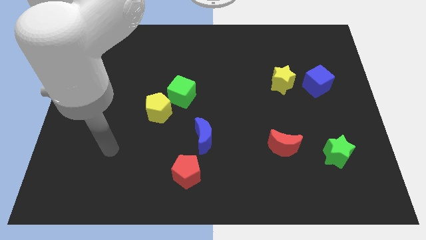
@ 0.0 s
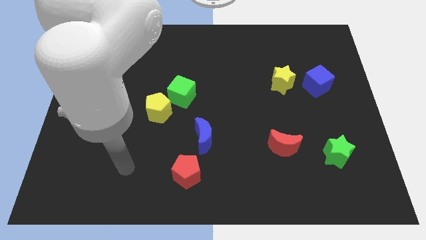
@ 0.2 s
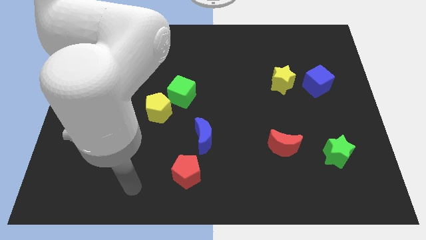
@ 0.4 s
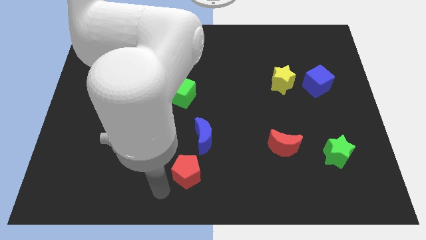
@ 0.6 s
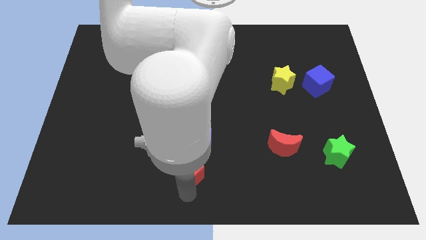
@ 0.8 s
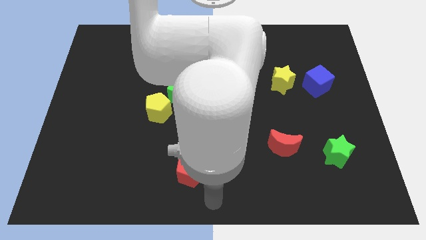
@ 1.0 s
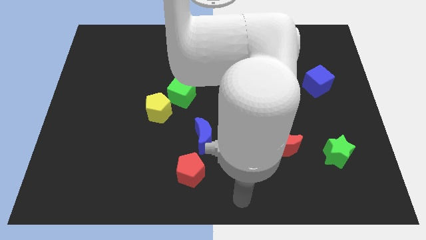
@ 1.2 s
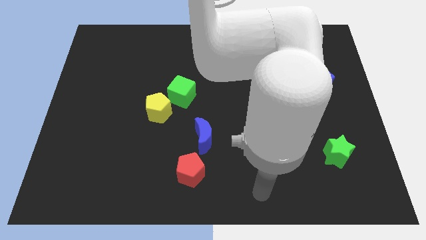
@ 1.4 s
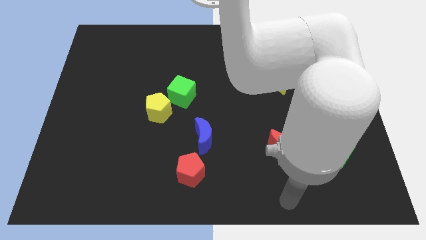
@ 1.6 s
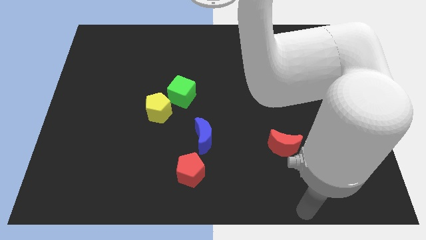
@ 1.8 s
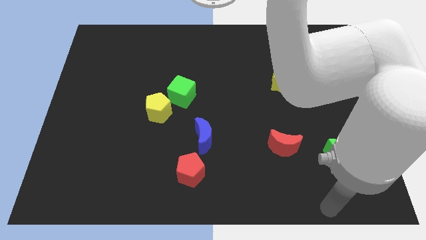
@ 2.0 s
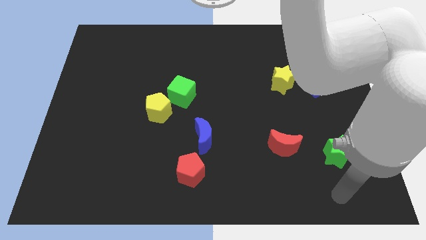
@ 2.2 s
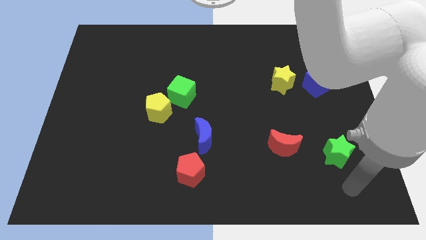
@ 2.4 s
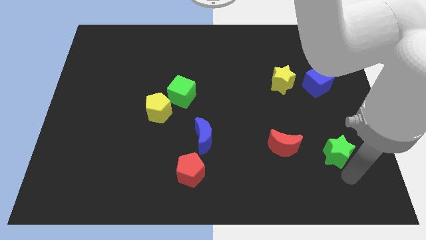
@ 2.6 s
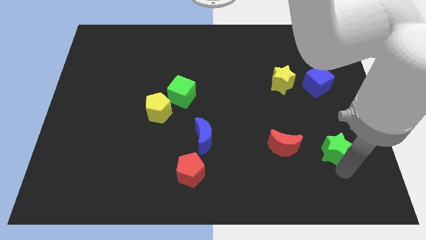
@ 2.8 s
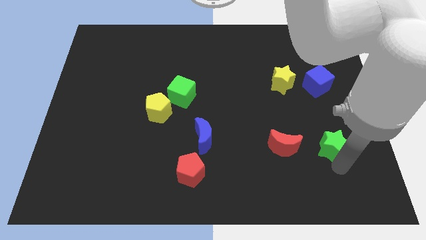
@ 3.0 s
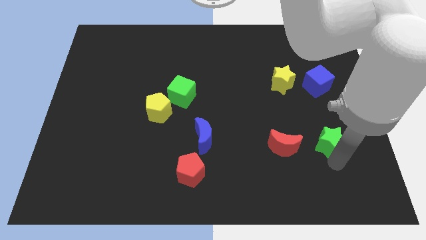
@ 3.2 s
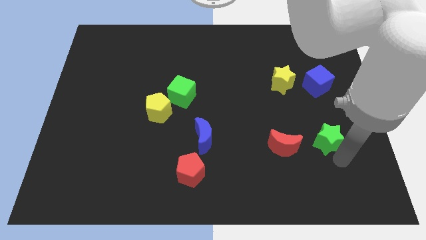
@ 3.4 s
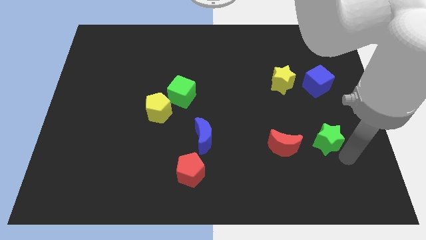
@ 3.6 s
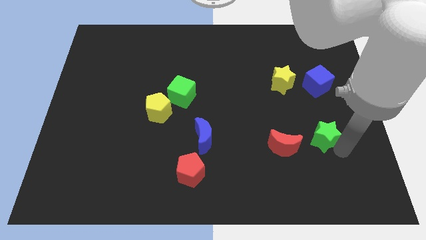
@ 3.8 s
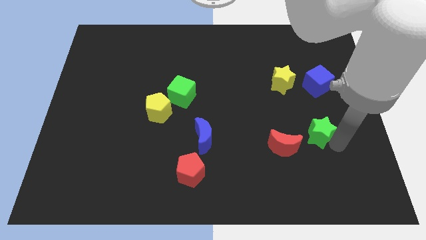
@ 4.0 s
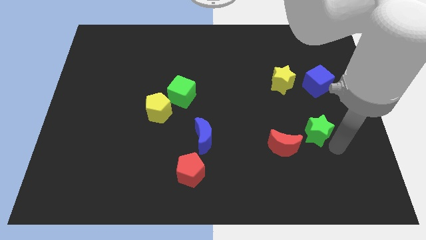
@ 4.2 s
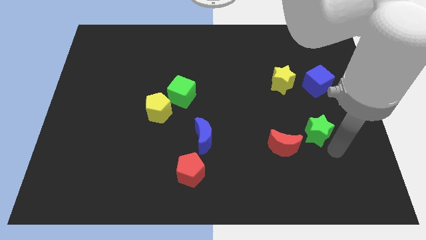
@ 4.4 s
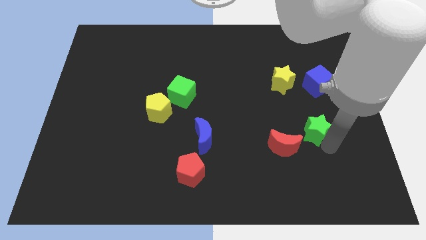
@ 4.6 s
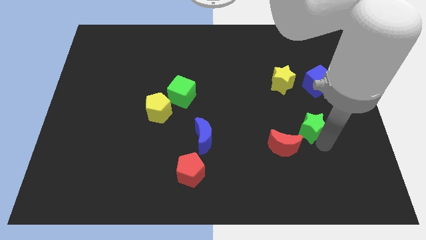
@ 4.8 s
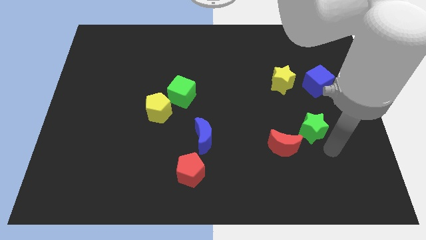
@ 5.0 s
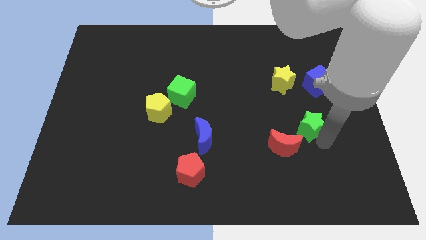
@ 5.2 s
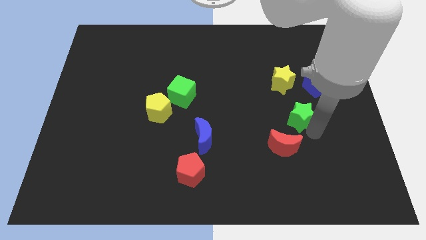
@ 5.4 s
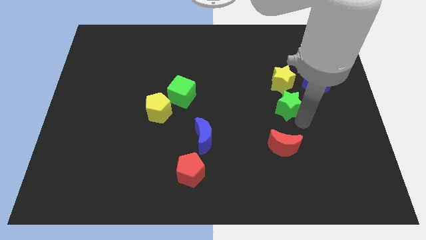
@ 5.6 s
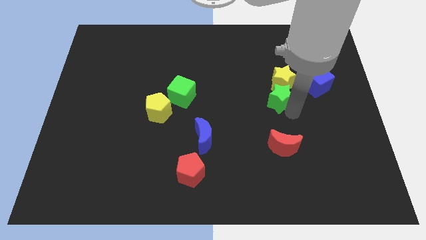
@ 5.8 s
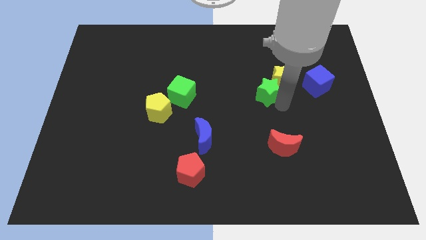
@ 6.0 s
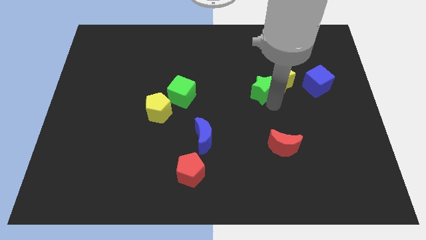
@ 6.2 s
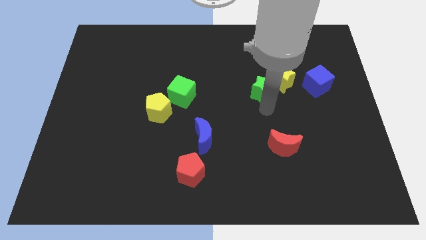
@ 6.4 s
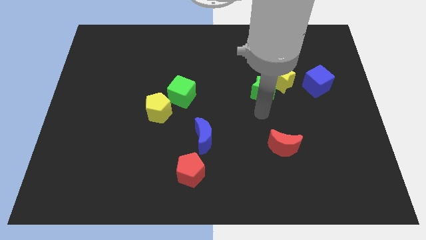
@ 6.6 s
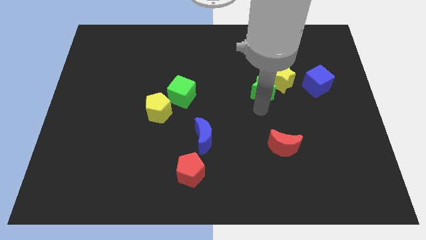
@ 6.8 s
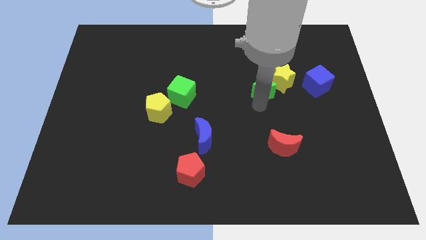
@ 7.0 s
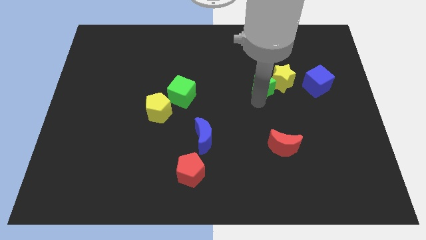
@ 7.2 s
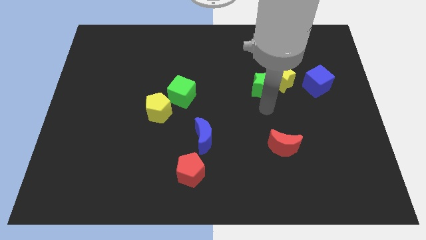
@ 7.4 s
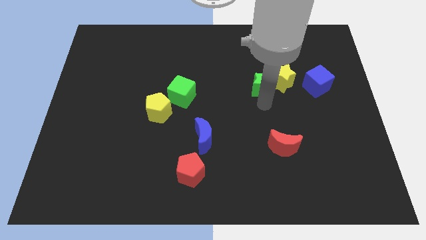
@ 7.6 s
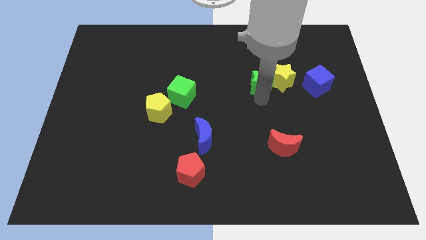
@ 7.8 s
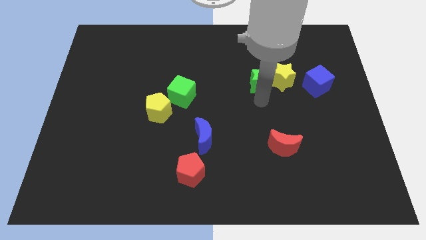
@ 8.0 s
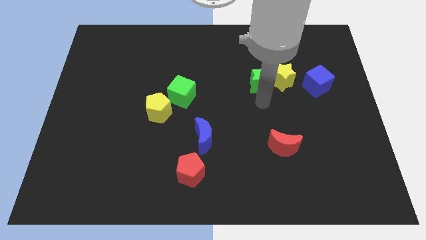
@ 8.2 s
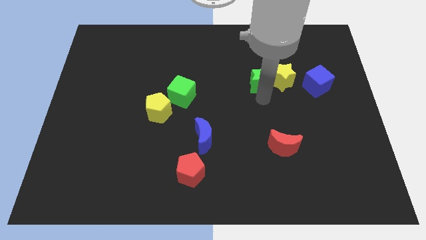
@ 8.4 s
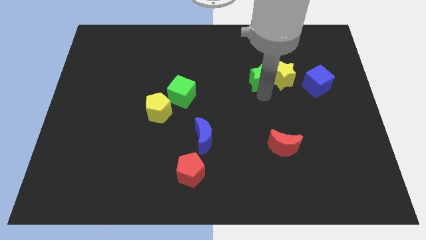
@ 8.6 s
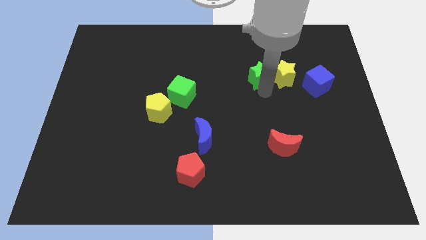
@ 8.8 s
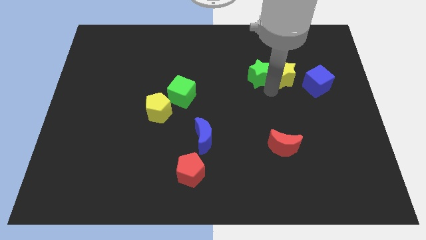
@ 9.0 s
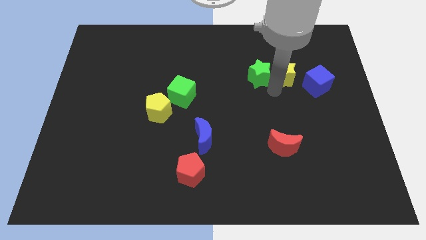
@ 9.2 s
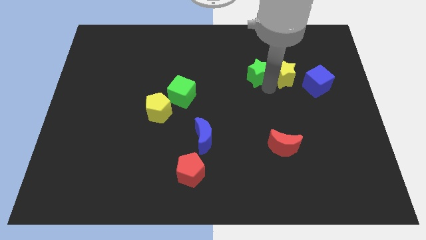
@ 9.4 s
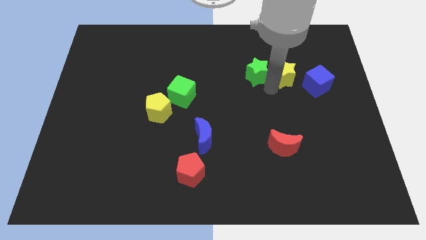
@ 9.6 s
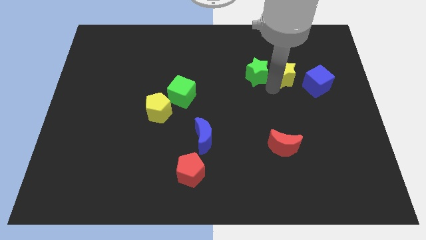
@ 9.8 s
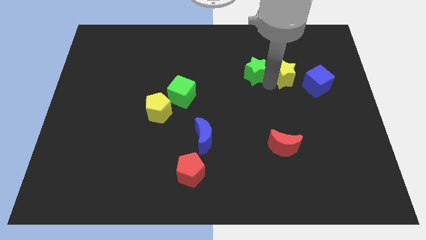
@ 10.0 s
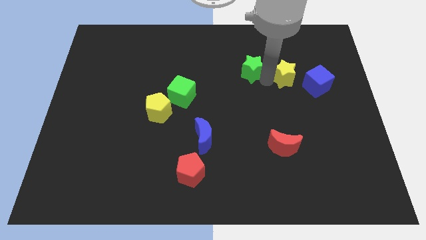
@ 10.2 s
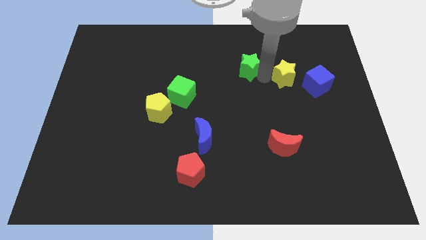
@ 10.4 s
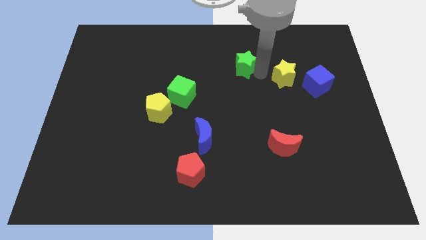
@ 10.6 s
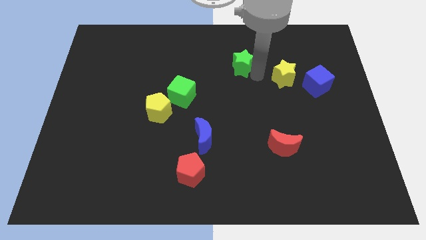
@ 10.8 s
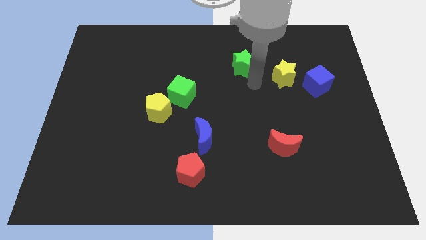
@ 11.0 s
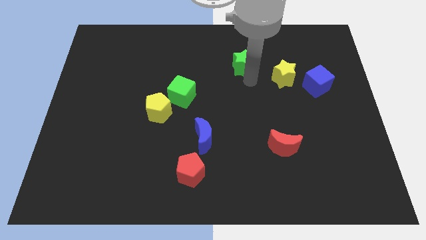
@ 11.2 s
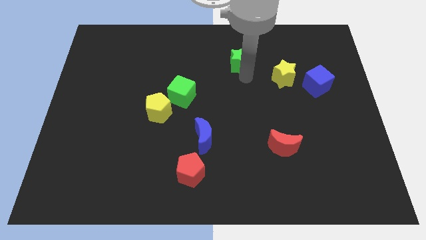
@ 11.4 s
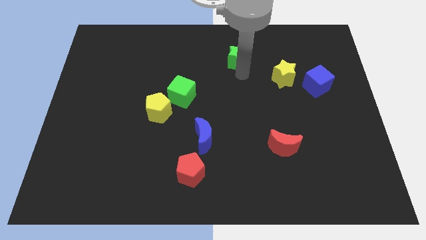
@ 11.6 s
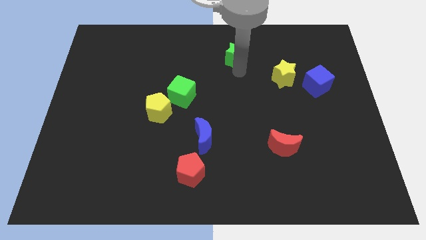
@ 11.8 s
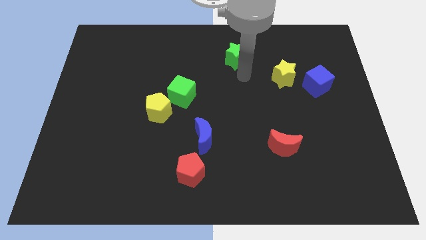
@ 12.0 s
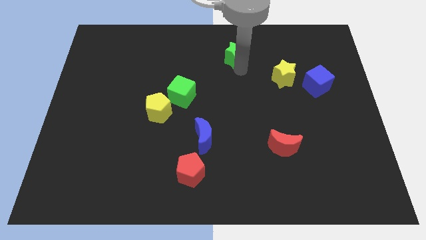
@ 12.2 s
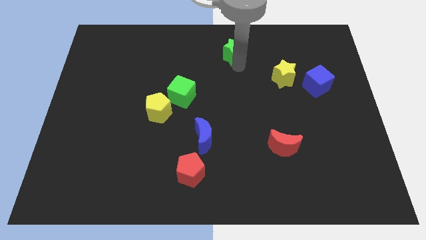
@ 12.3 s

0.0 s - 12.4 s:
slide the green star to the towards your base

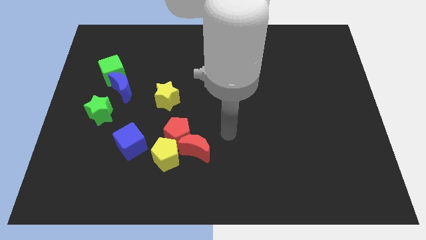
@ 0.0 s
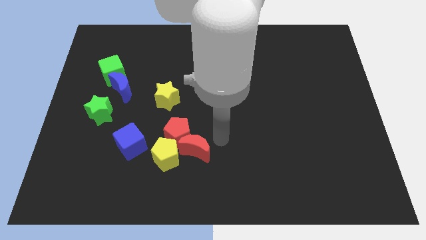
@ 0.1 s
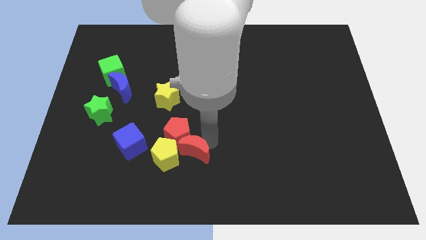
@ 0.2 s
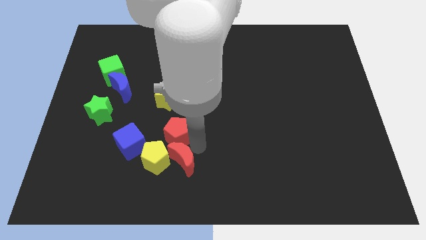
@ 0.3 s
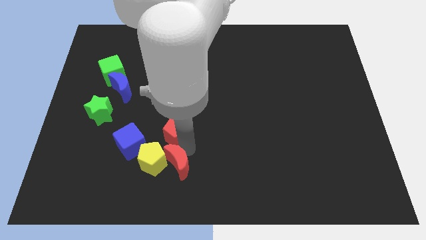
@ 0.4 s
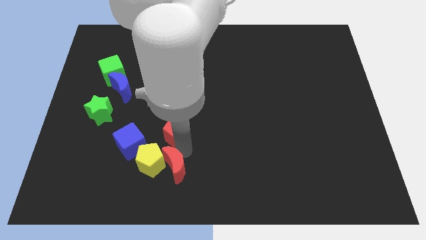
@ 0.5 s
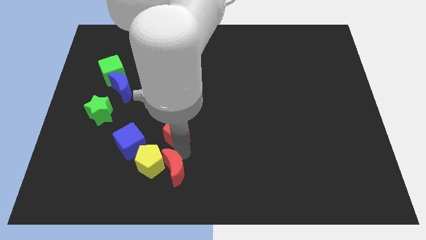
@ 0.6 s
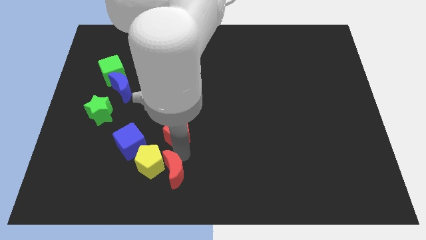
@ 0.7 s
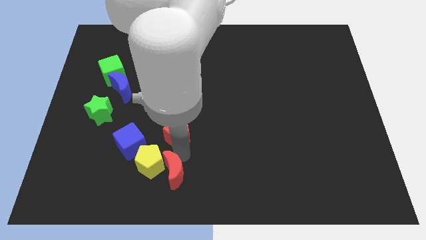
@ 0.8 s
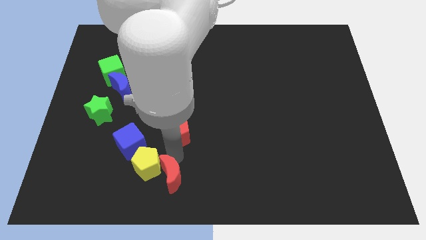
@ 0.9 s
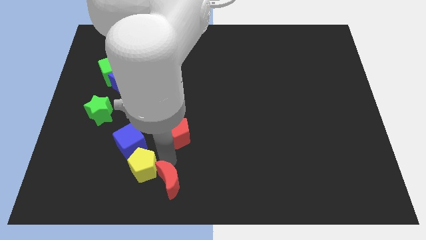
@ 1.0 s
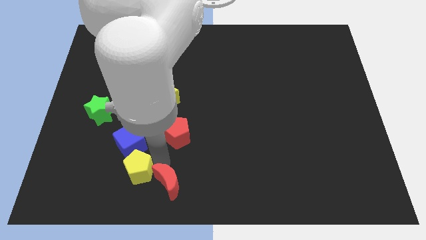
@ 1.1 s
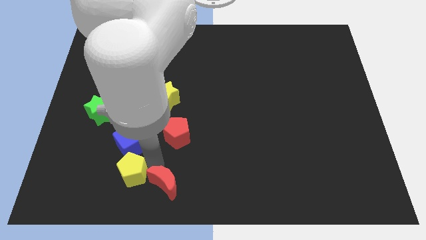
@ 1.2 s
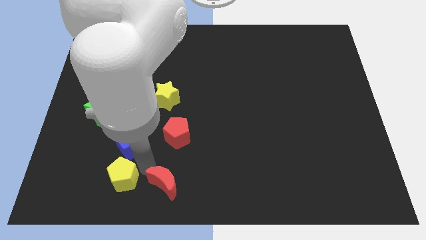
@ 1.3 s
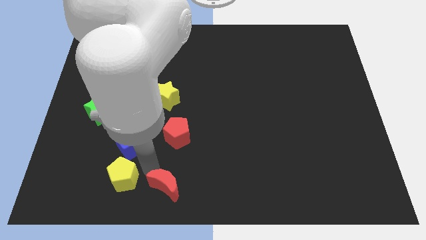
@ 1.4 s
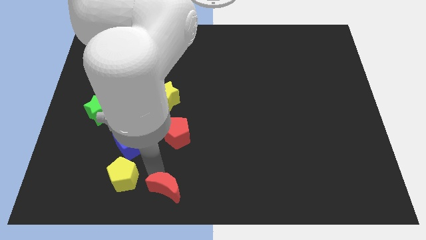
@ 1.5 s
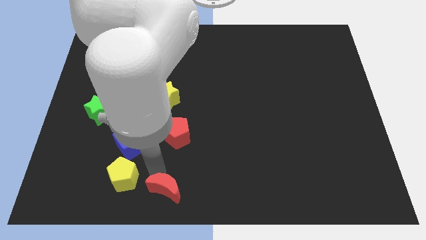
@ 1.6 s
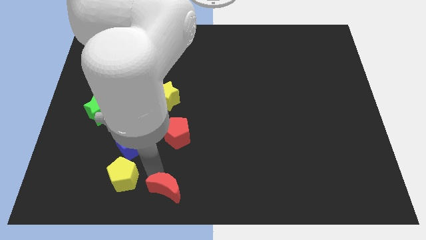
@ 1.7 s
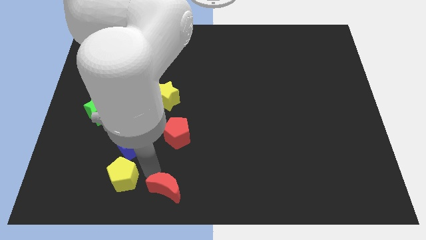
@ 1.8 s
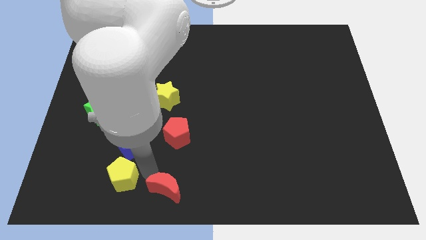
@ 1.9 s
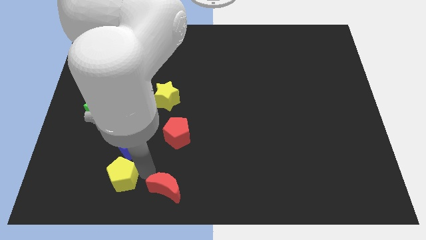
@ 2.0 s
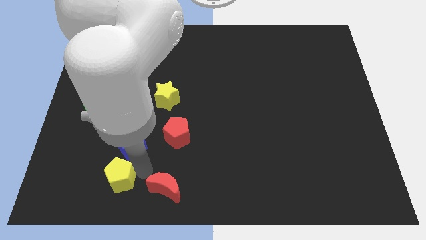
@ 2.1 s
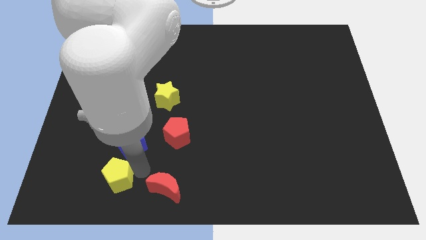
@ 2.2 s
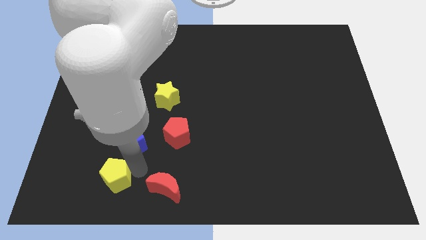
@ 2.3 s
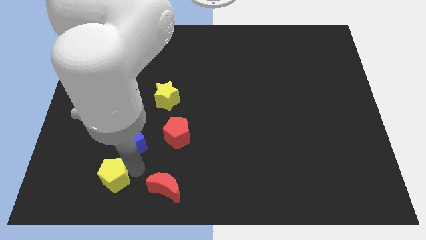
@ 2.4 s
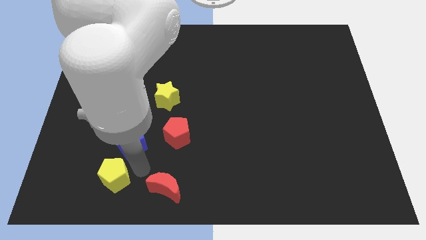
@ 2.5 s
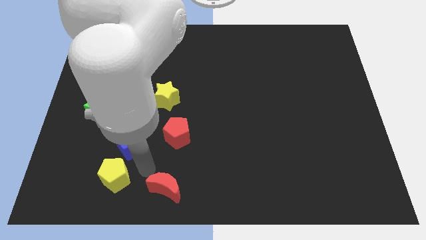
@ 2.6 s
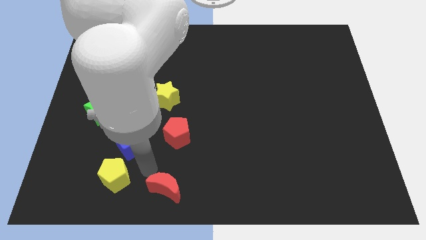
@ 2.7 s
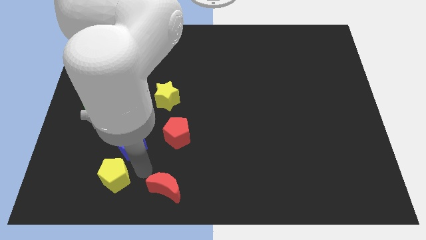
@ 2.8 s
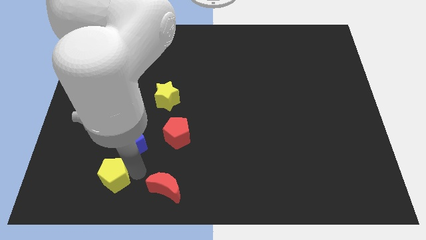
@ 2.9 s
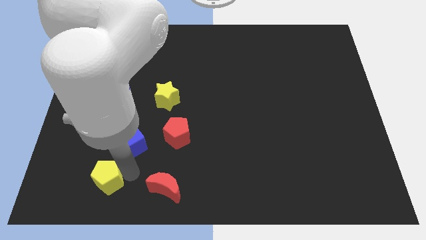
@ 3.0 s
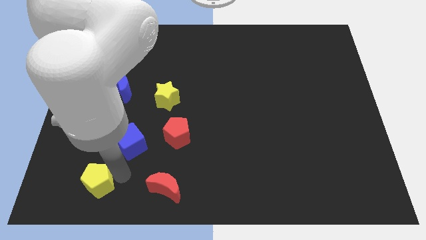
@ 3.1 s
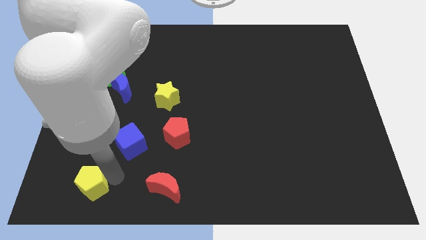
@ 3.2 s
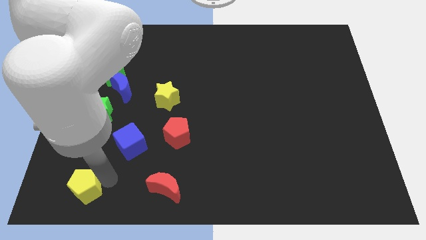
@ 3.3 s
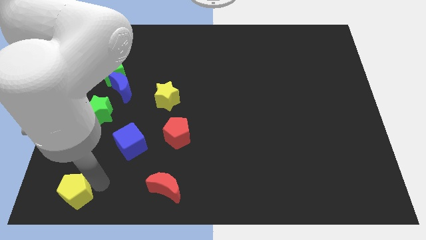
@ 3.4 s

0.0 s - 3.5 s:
slide the yellow pentagon to the bottom left corner
